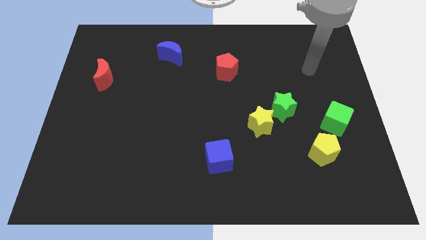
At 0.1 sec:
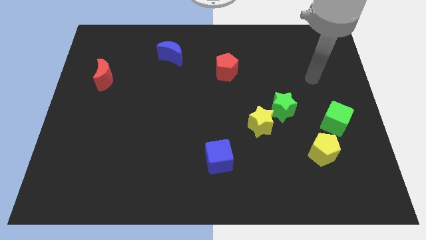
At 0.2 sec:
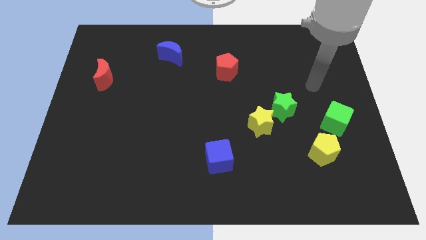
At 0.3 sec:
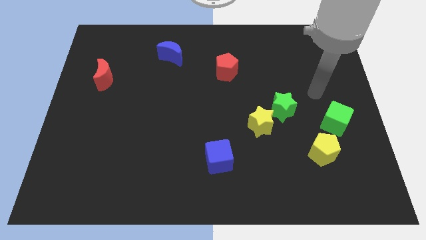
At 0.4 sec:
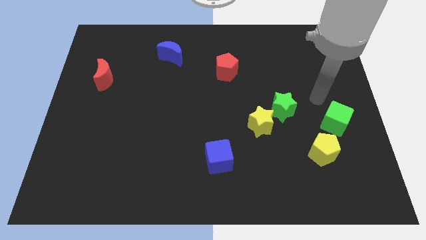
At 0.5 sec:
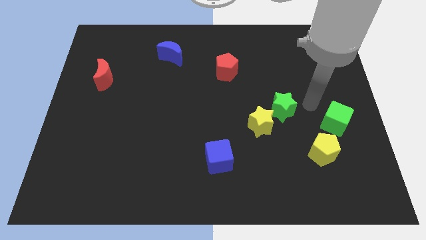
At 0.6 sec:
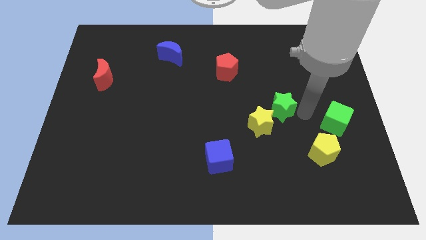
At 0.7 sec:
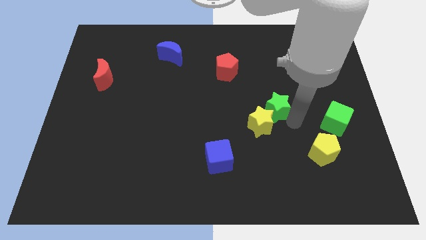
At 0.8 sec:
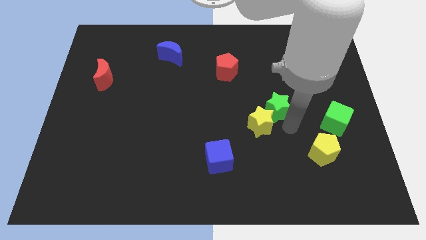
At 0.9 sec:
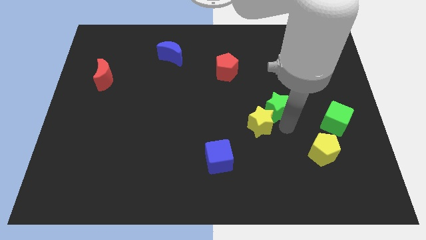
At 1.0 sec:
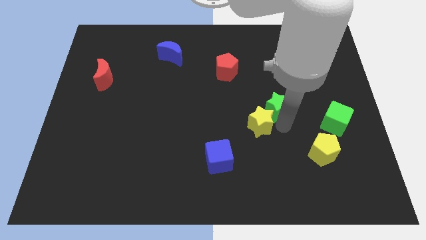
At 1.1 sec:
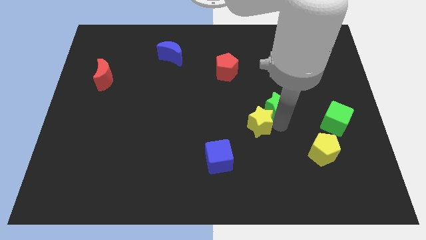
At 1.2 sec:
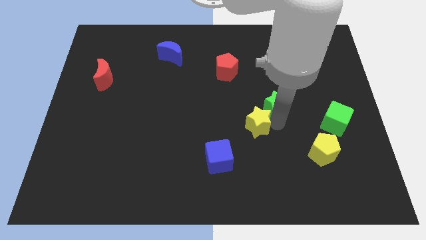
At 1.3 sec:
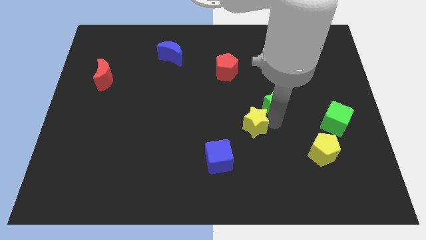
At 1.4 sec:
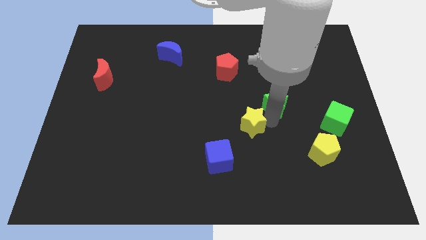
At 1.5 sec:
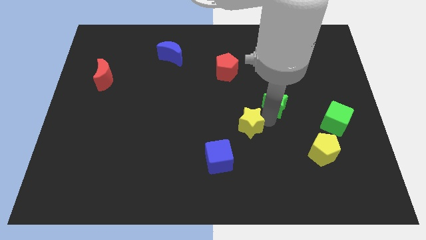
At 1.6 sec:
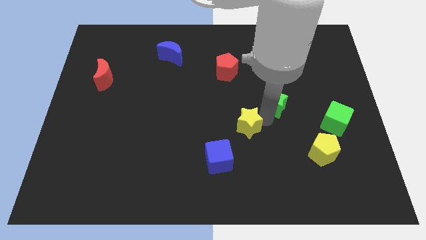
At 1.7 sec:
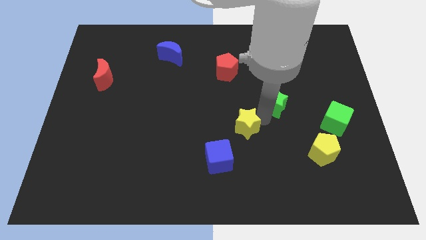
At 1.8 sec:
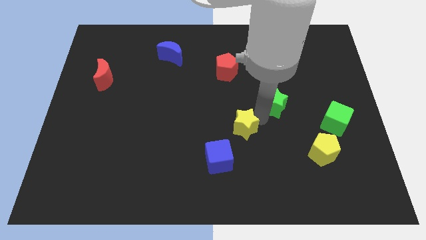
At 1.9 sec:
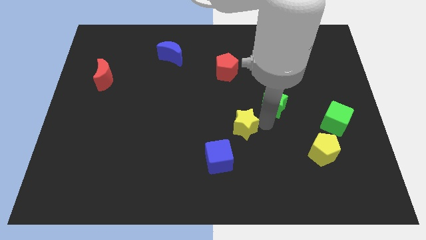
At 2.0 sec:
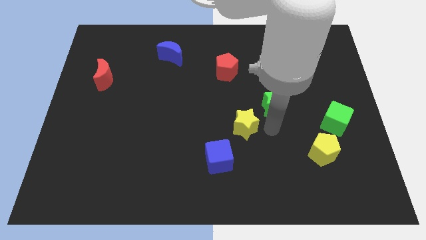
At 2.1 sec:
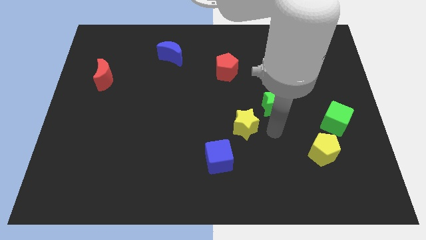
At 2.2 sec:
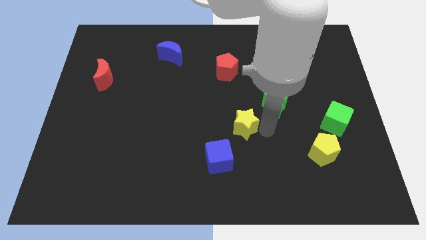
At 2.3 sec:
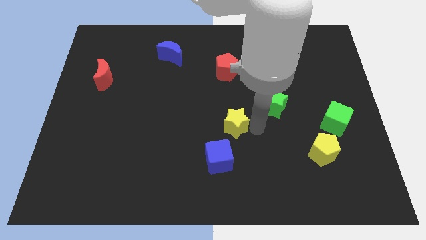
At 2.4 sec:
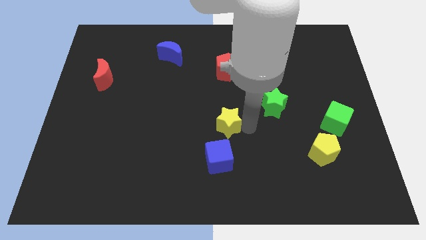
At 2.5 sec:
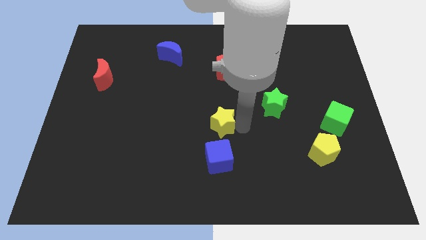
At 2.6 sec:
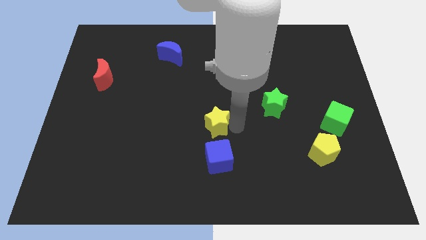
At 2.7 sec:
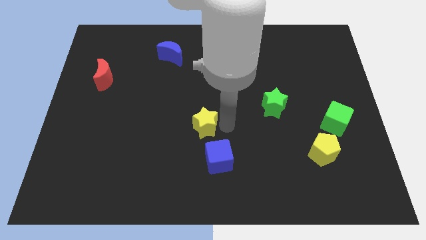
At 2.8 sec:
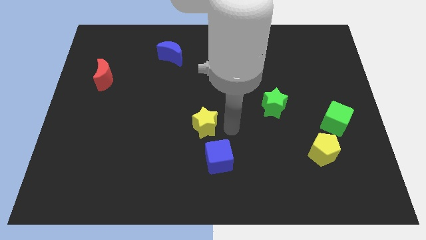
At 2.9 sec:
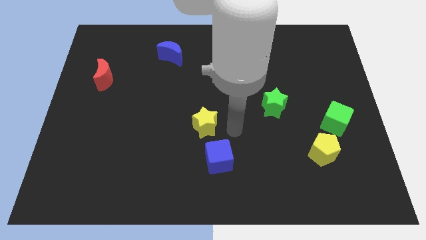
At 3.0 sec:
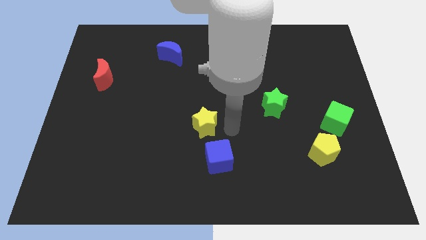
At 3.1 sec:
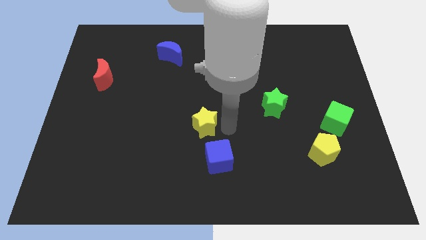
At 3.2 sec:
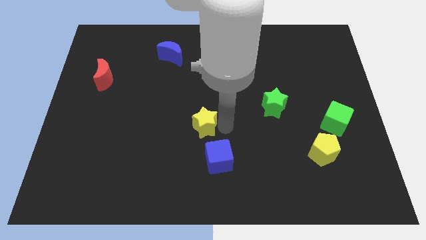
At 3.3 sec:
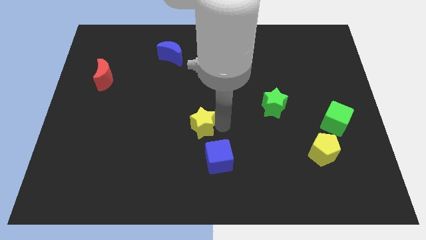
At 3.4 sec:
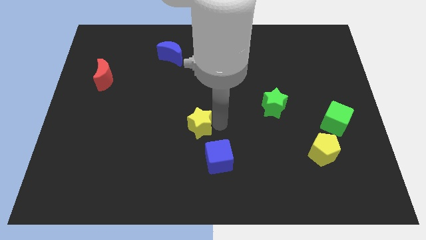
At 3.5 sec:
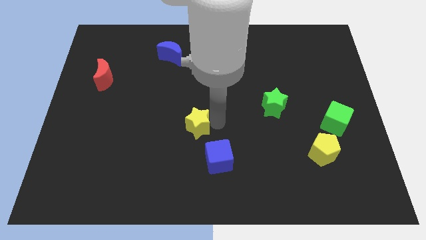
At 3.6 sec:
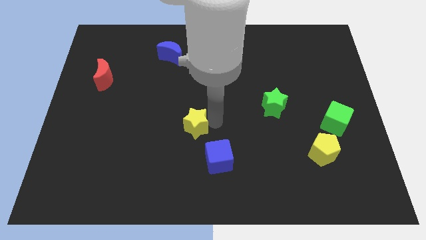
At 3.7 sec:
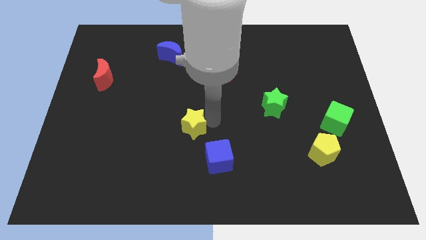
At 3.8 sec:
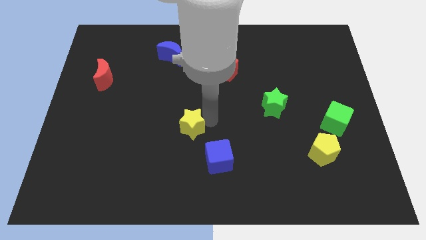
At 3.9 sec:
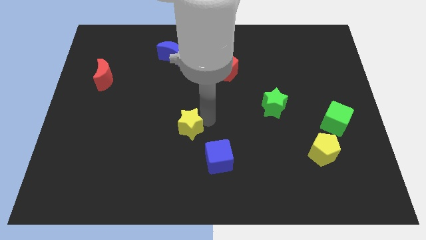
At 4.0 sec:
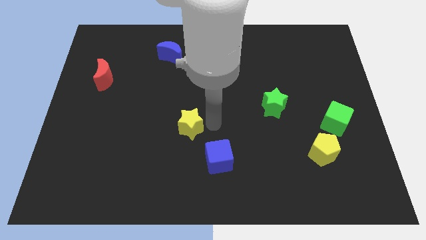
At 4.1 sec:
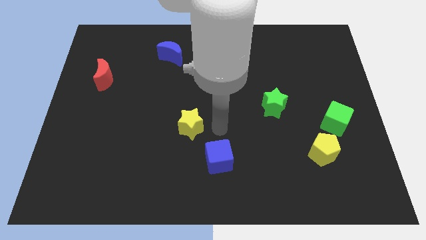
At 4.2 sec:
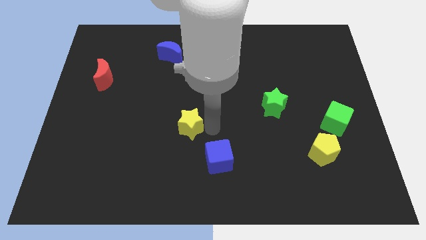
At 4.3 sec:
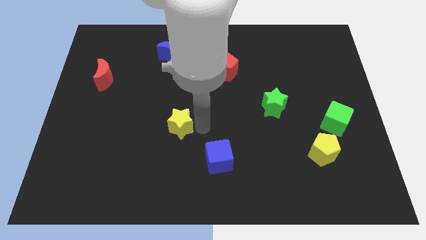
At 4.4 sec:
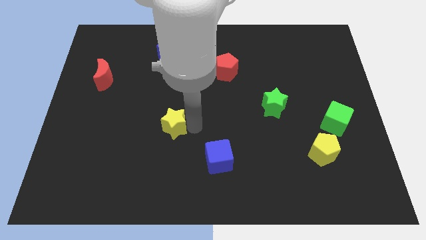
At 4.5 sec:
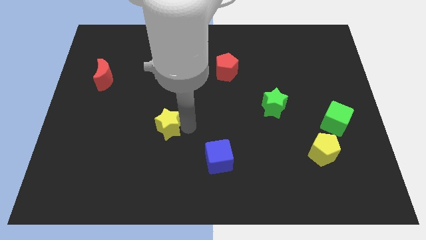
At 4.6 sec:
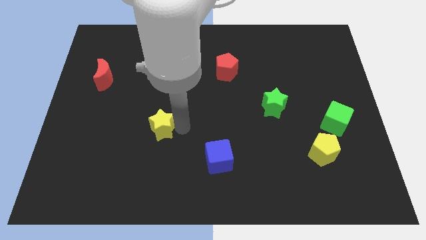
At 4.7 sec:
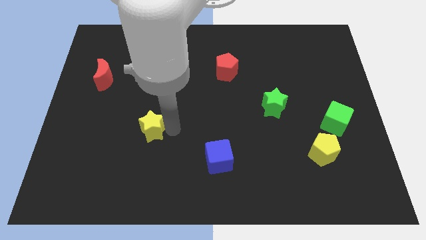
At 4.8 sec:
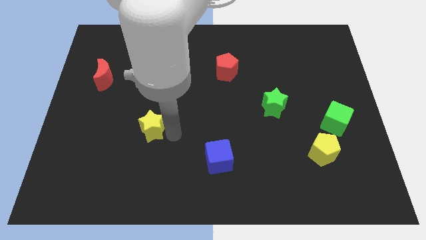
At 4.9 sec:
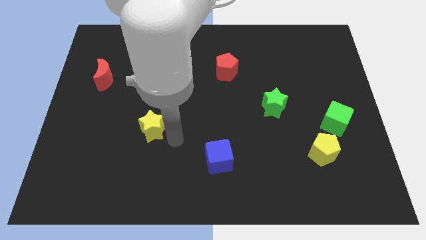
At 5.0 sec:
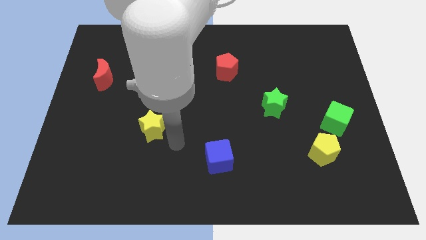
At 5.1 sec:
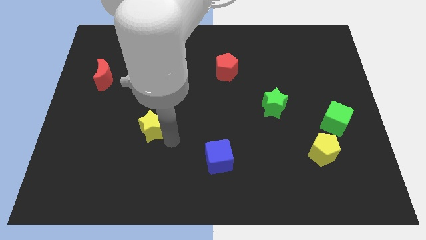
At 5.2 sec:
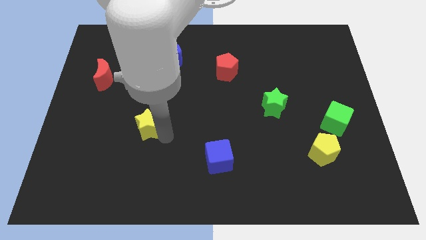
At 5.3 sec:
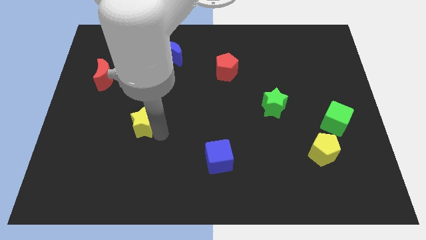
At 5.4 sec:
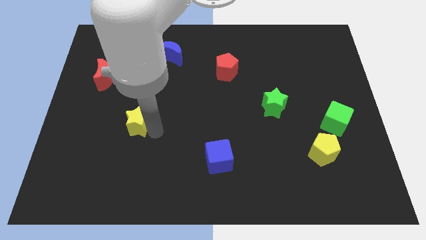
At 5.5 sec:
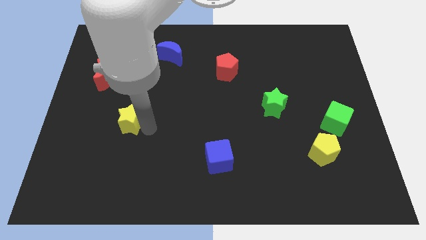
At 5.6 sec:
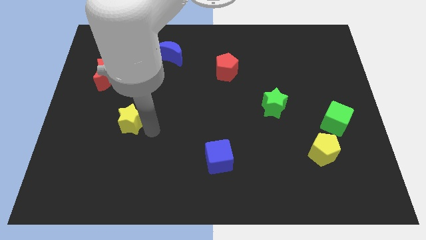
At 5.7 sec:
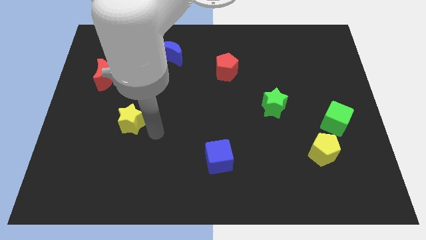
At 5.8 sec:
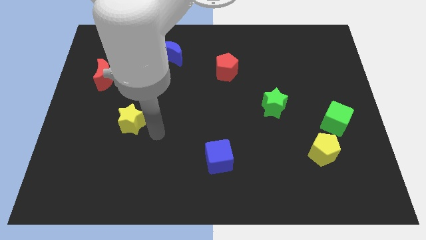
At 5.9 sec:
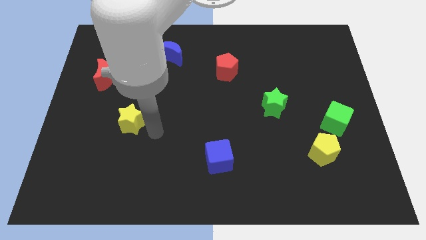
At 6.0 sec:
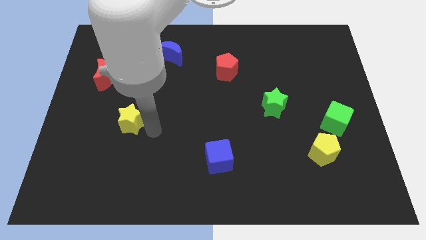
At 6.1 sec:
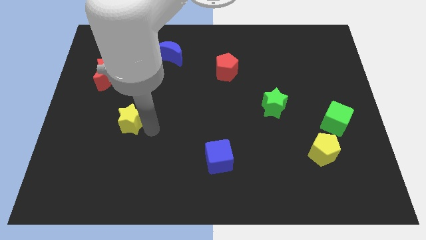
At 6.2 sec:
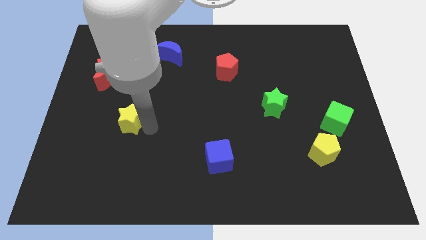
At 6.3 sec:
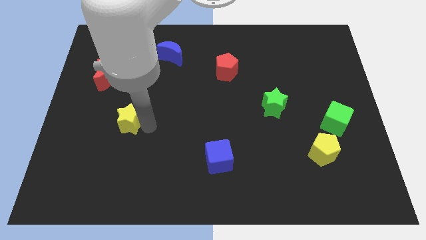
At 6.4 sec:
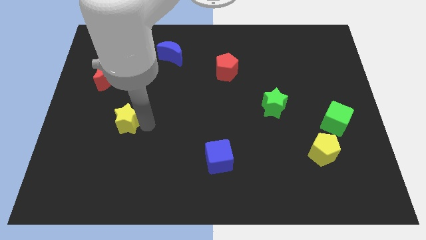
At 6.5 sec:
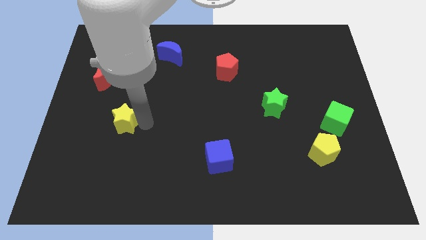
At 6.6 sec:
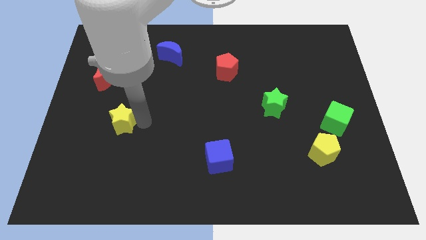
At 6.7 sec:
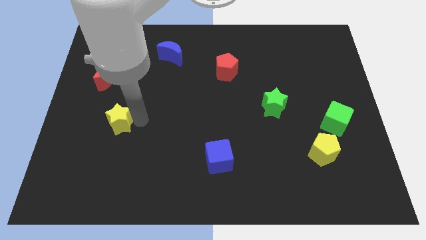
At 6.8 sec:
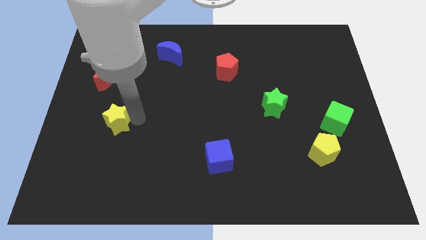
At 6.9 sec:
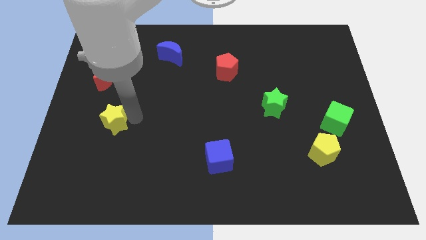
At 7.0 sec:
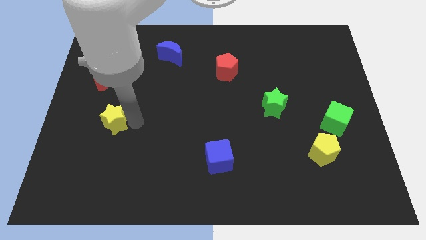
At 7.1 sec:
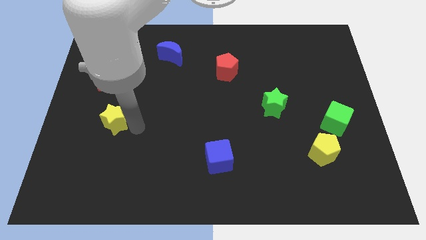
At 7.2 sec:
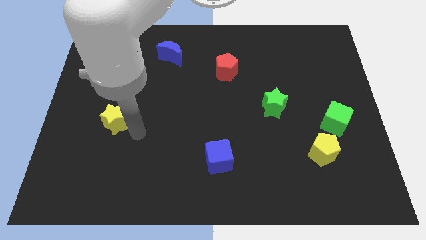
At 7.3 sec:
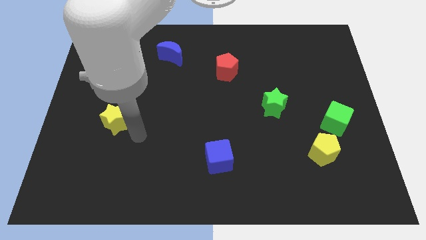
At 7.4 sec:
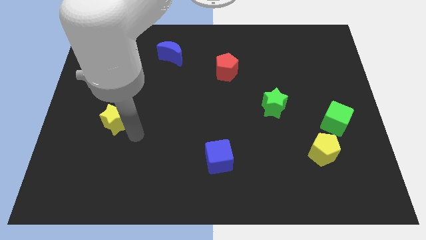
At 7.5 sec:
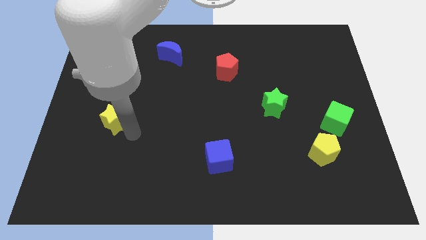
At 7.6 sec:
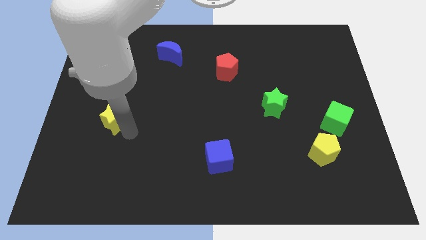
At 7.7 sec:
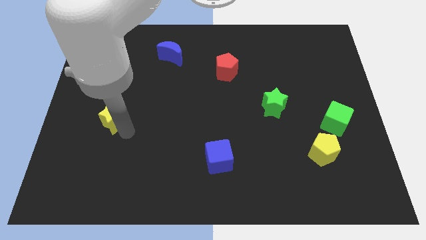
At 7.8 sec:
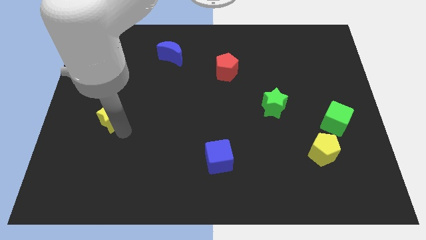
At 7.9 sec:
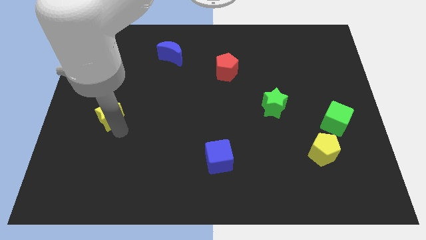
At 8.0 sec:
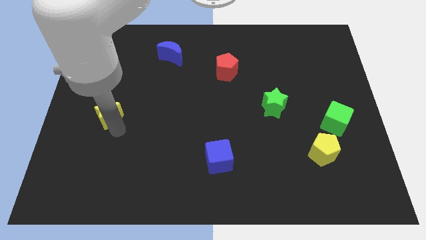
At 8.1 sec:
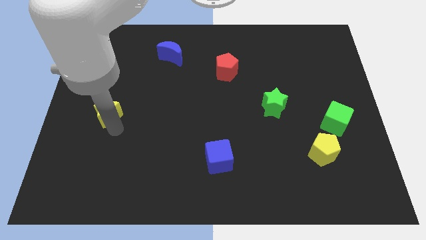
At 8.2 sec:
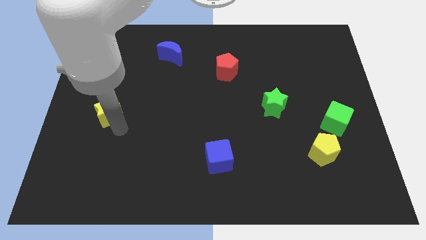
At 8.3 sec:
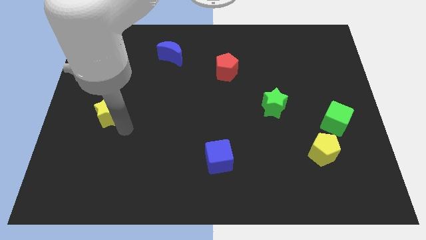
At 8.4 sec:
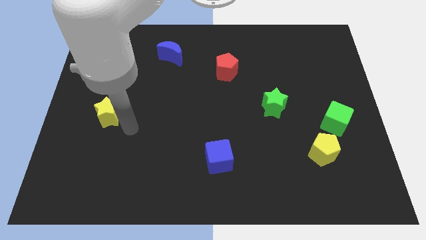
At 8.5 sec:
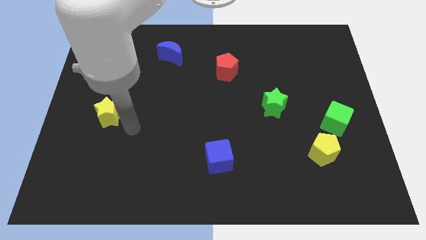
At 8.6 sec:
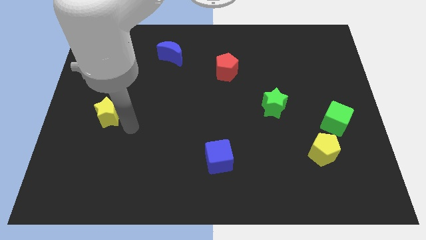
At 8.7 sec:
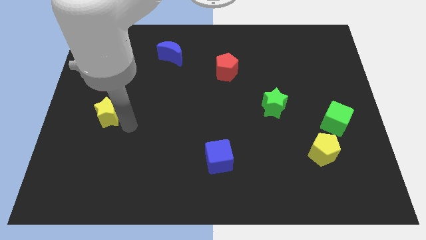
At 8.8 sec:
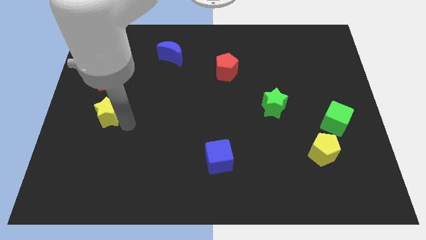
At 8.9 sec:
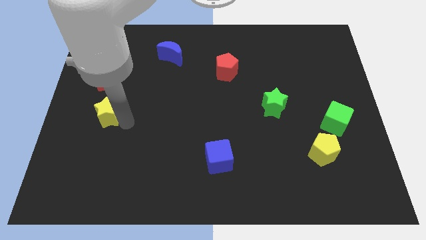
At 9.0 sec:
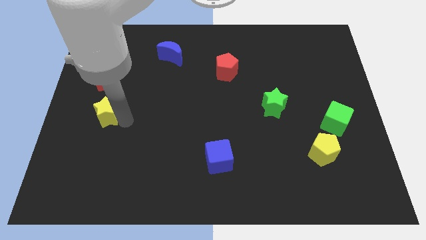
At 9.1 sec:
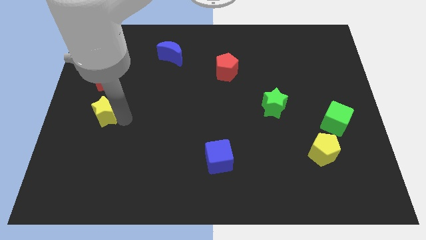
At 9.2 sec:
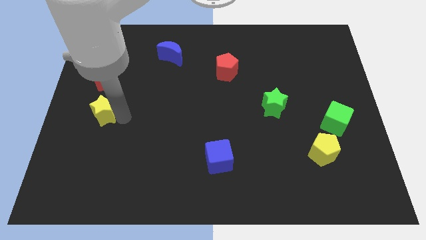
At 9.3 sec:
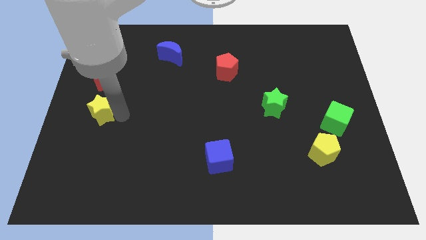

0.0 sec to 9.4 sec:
put the yellow star to the left side
